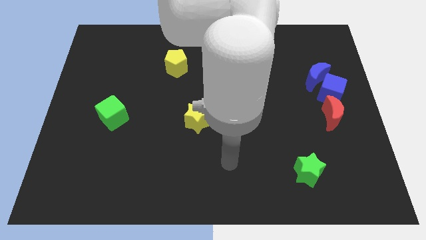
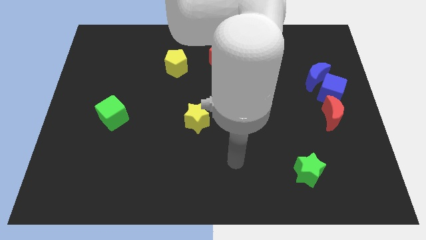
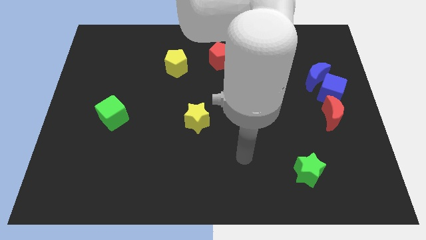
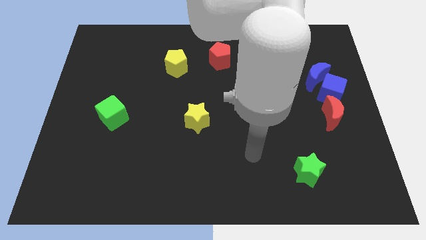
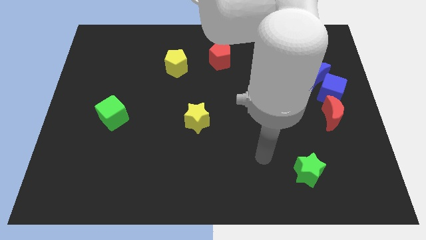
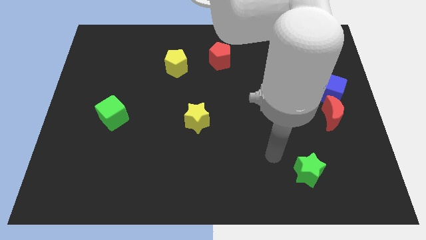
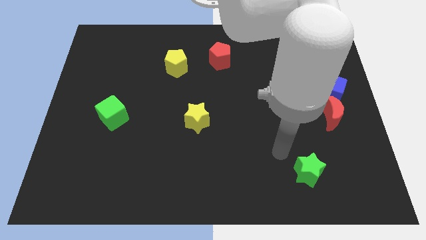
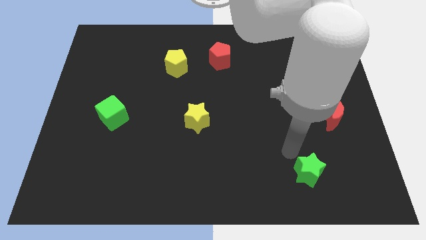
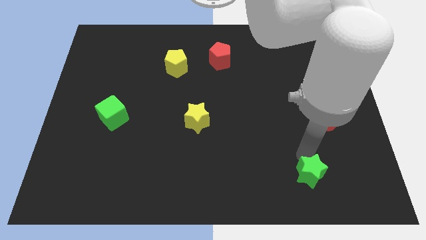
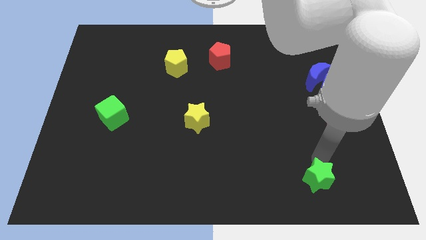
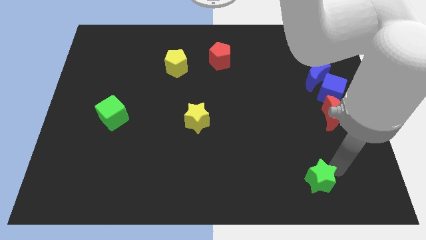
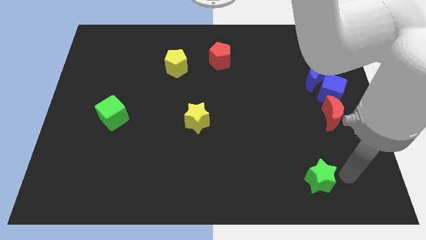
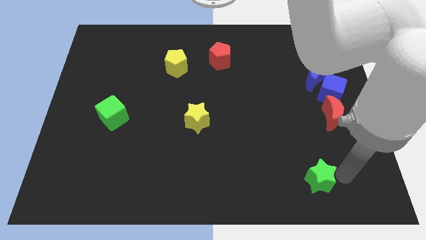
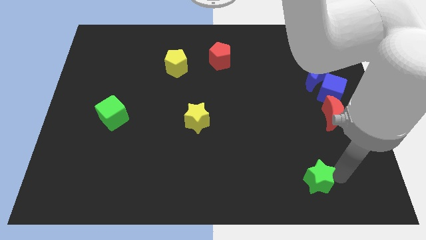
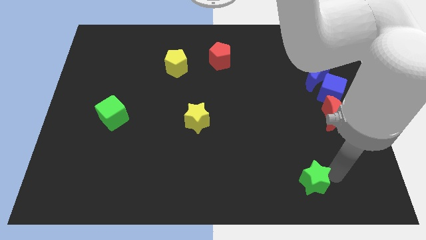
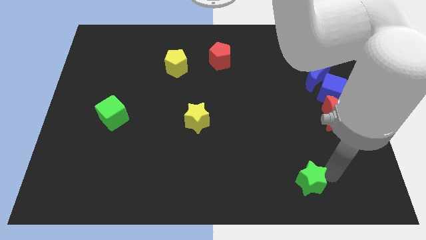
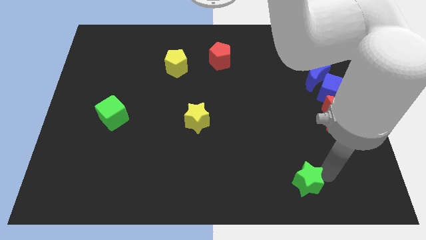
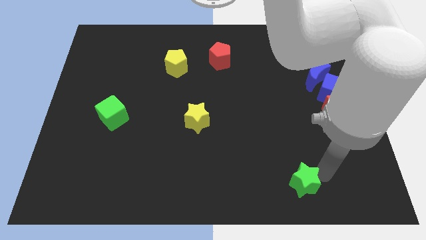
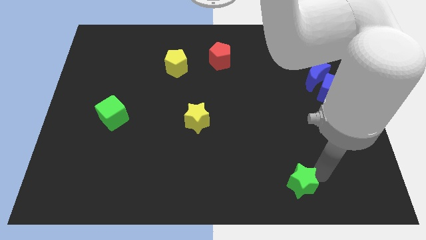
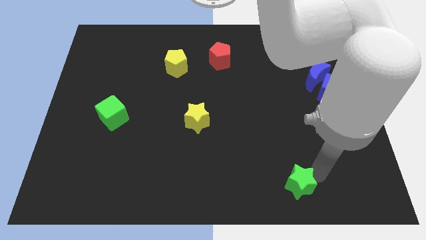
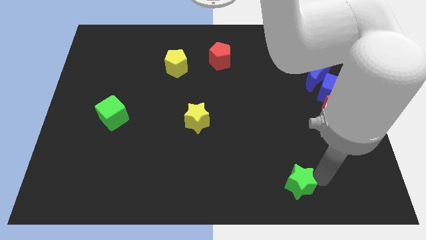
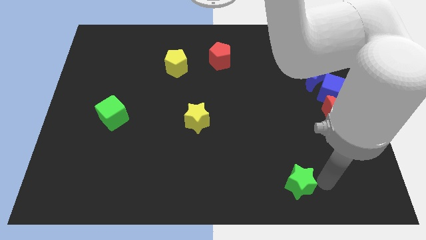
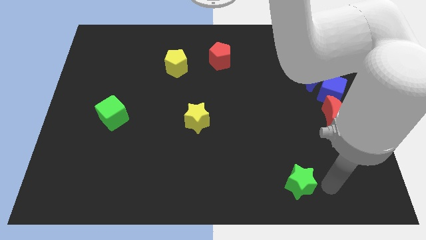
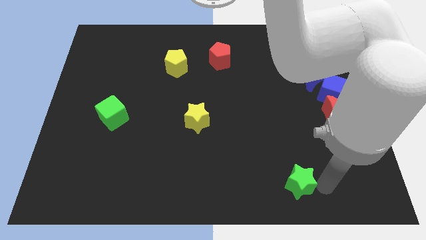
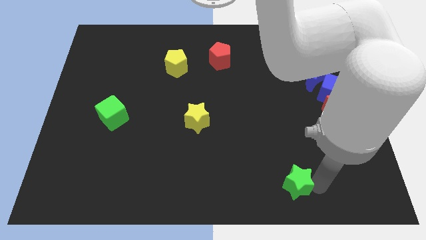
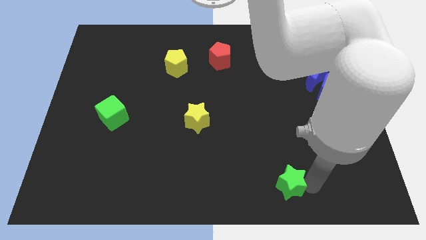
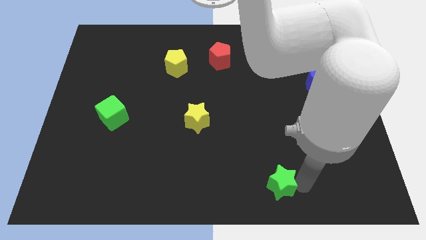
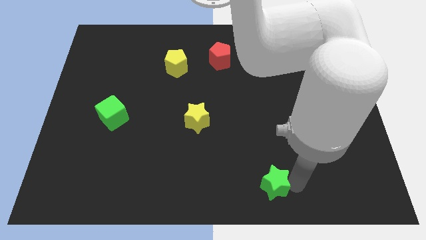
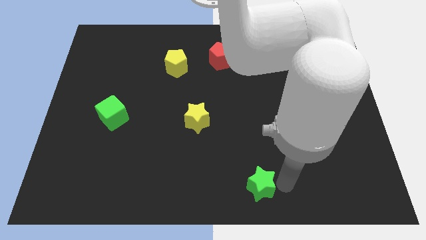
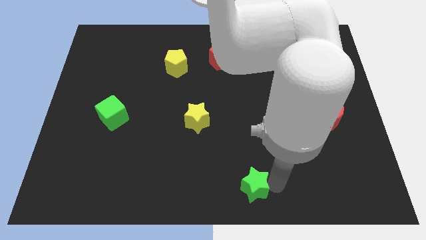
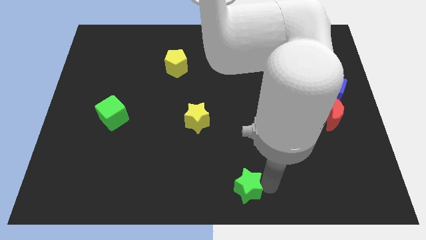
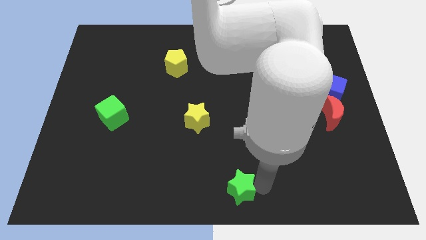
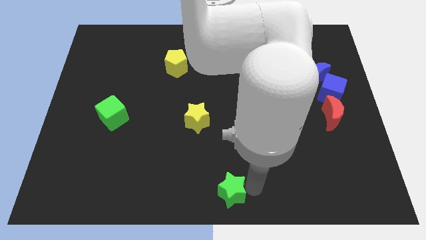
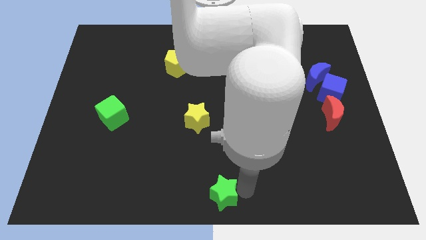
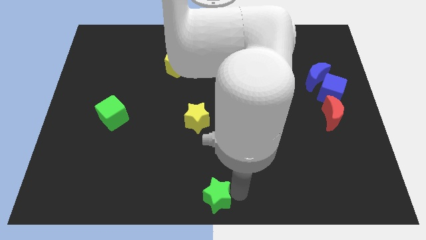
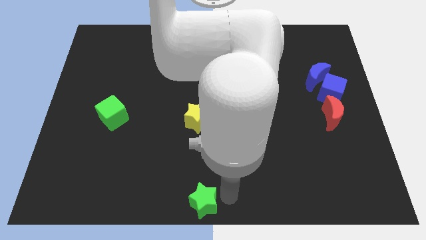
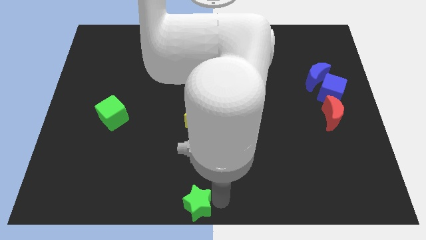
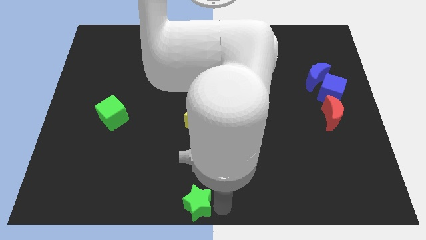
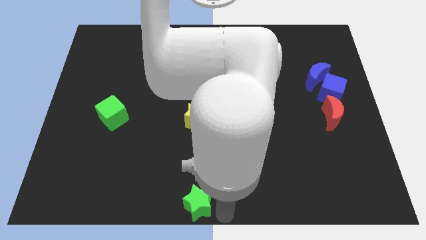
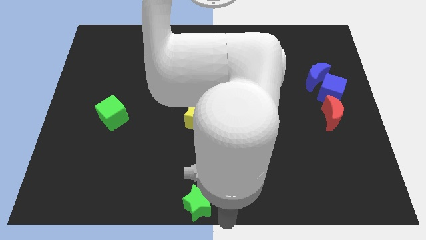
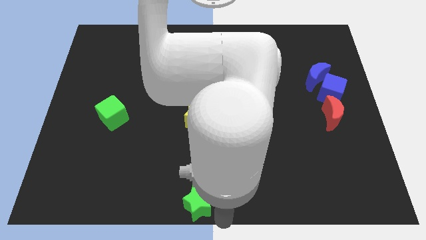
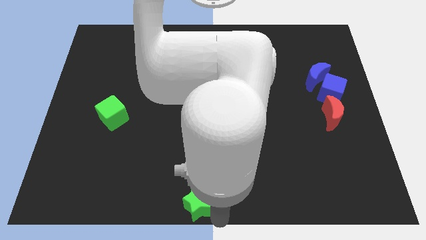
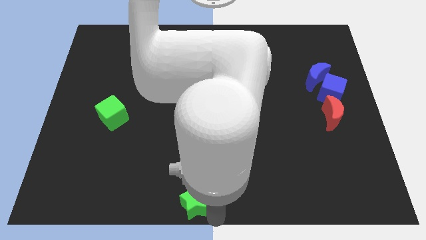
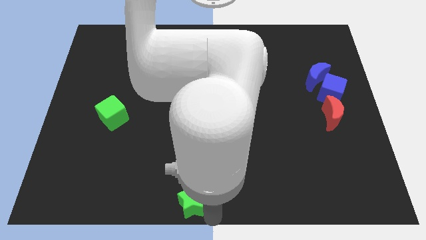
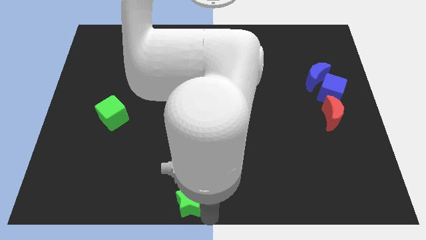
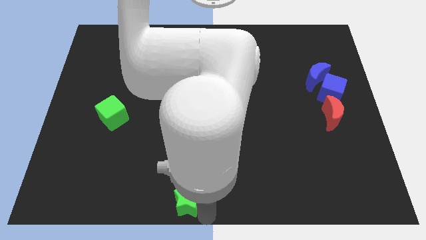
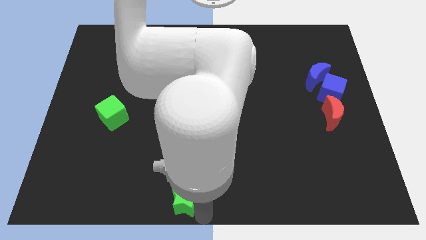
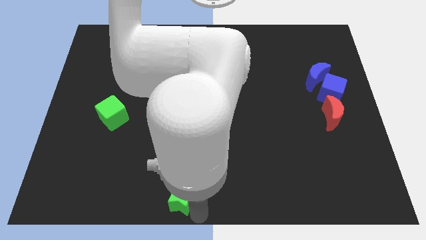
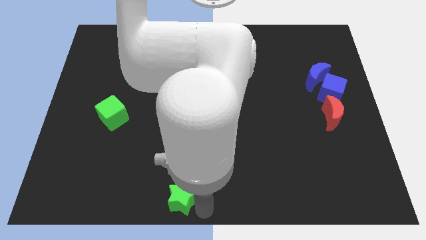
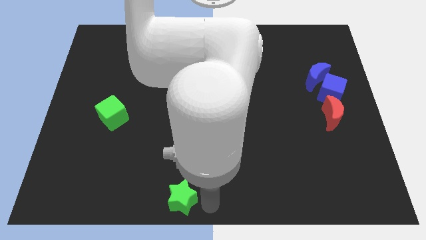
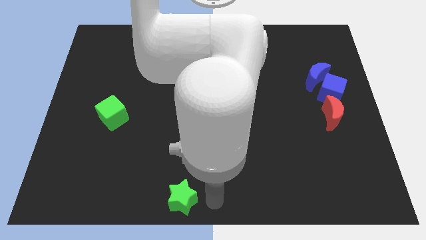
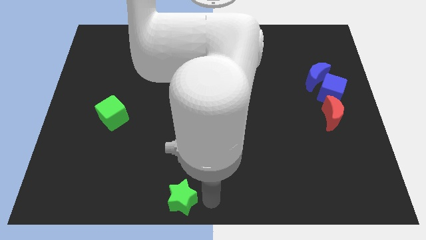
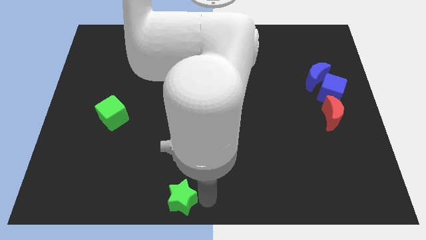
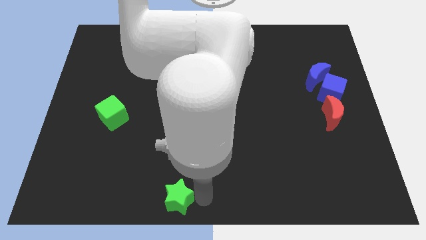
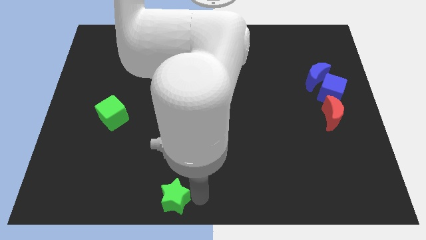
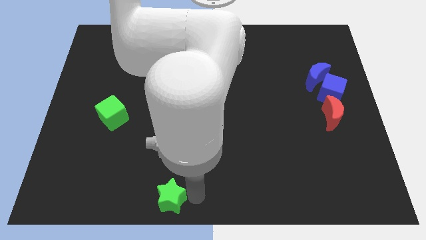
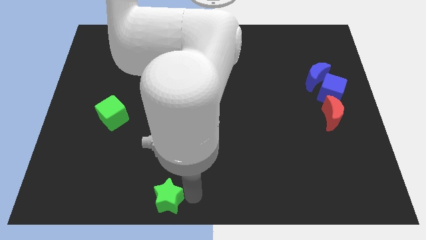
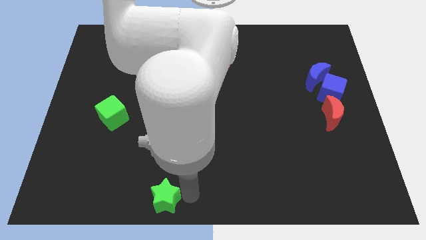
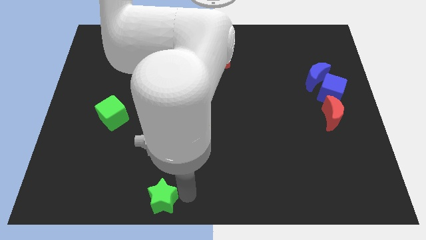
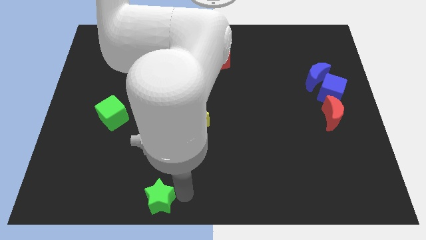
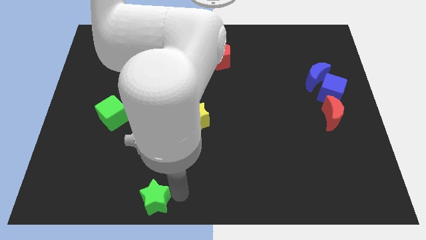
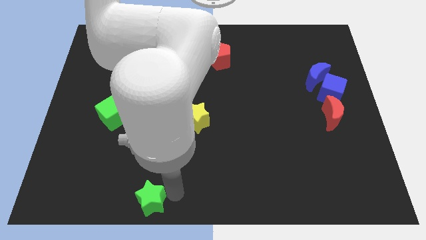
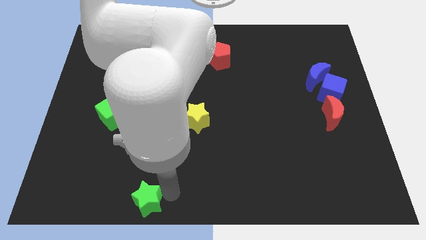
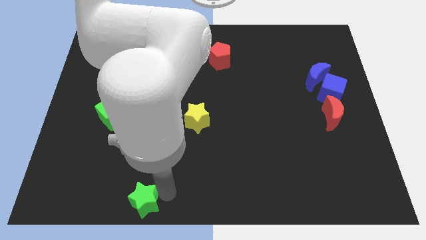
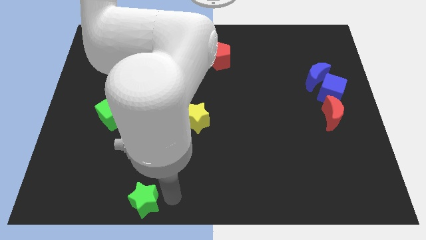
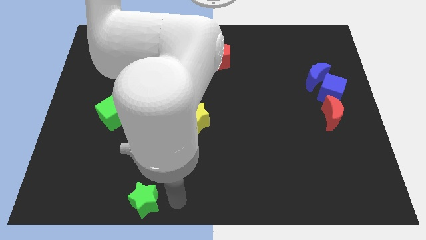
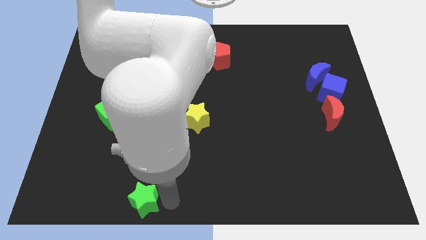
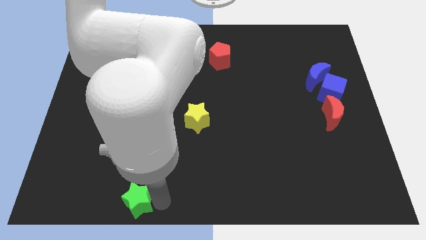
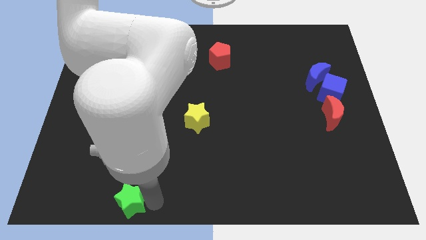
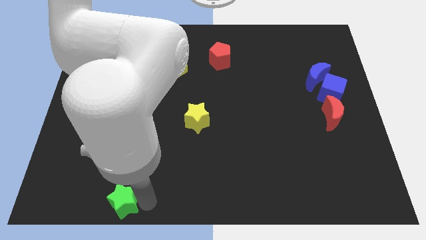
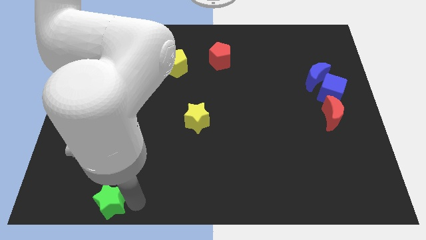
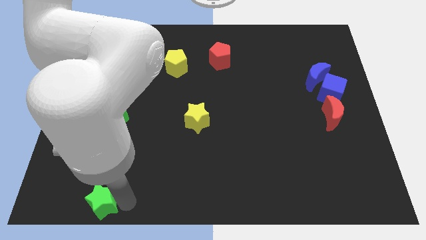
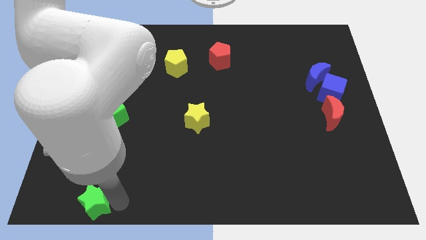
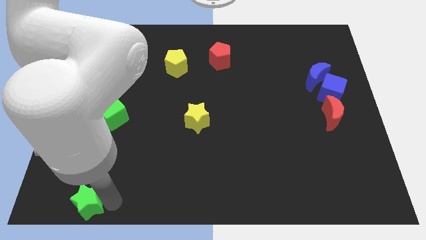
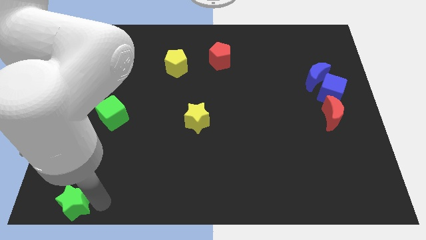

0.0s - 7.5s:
push the green star to the bottom left of the board
